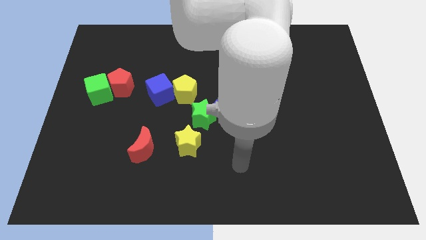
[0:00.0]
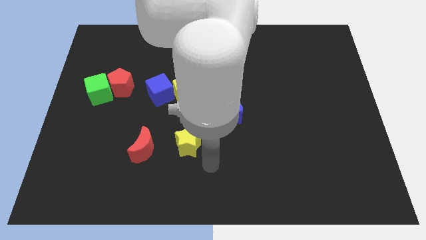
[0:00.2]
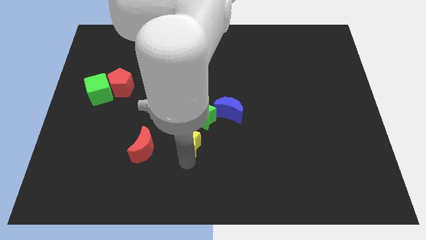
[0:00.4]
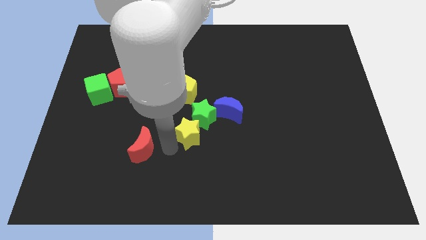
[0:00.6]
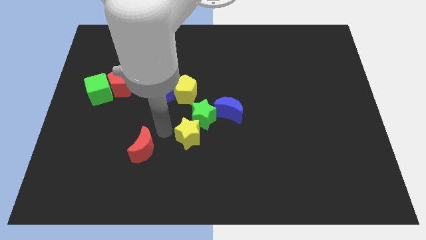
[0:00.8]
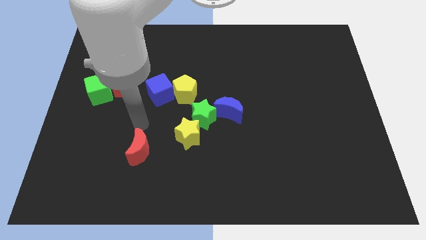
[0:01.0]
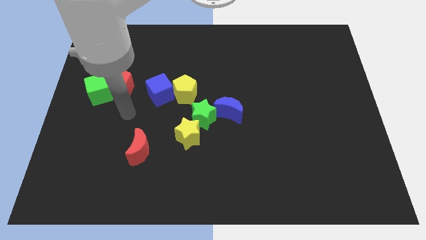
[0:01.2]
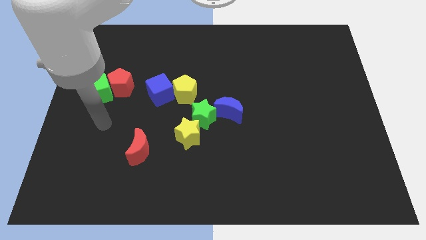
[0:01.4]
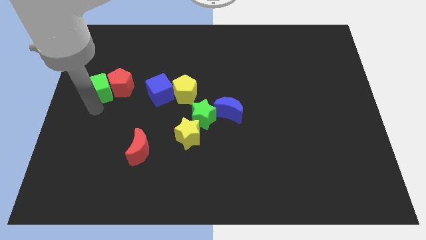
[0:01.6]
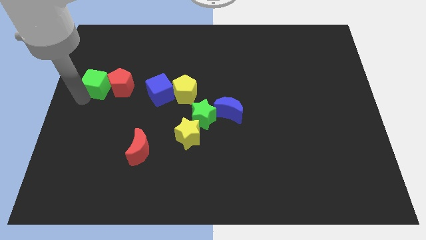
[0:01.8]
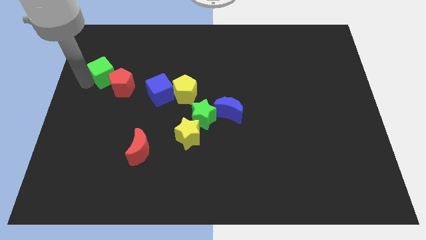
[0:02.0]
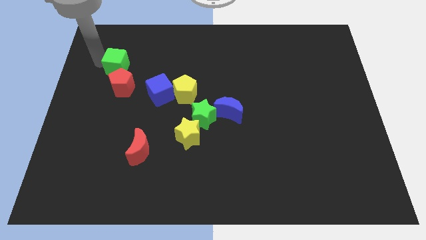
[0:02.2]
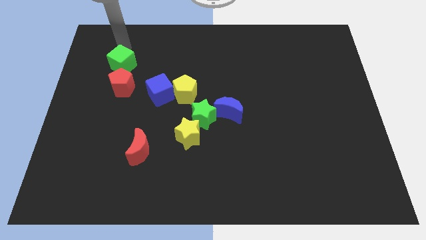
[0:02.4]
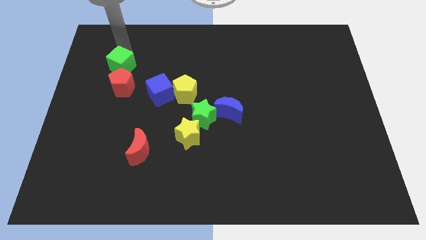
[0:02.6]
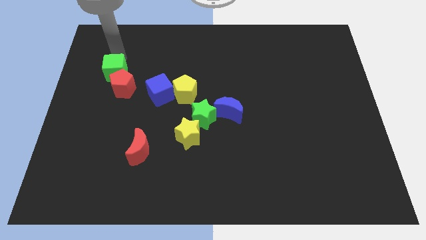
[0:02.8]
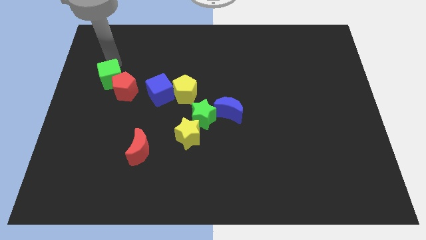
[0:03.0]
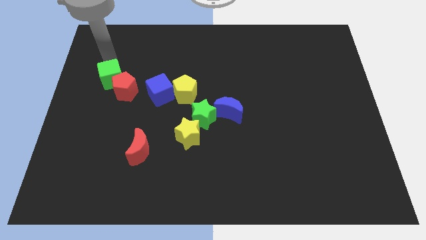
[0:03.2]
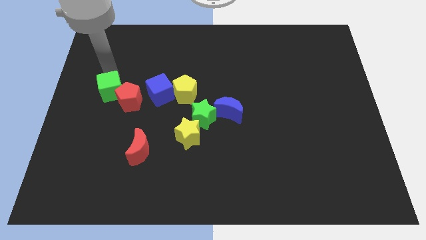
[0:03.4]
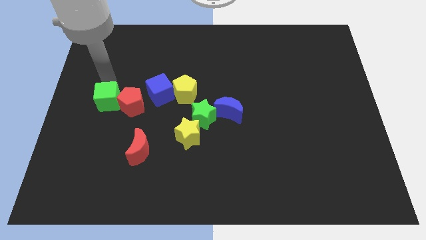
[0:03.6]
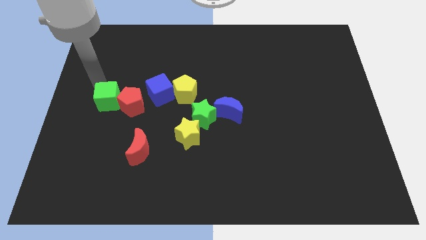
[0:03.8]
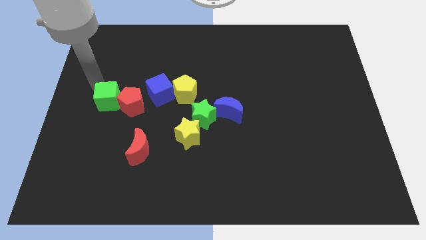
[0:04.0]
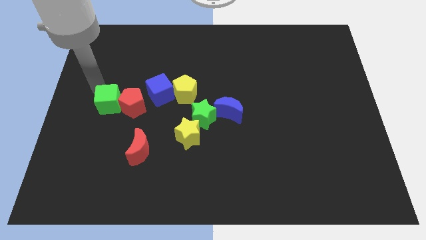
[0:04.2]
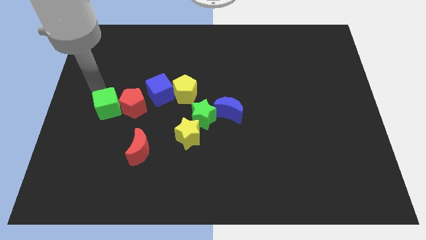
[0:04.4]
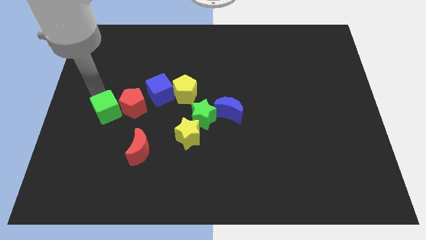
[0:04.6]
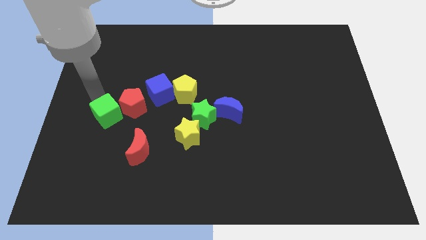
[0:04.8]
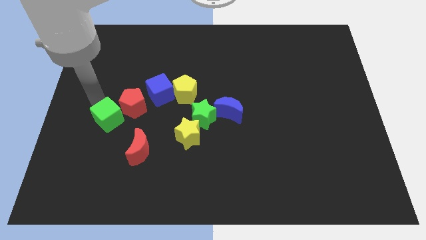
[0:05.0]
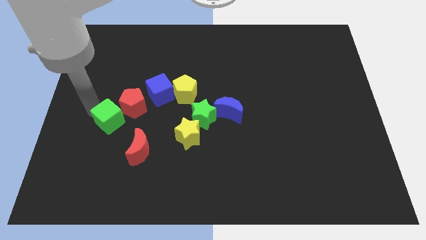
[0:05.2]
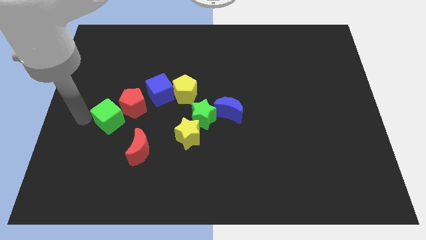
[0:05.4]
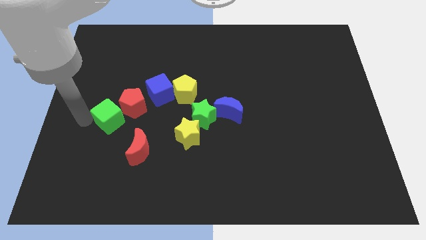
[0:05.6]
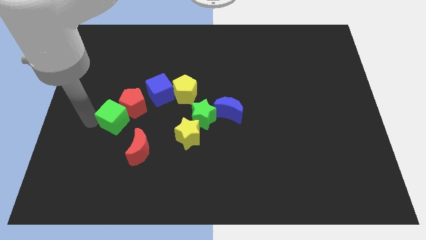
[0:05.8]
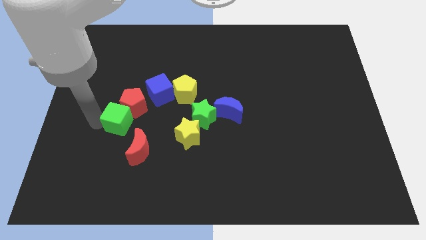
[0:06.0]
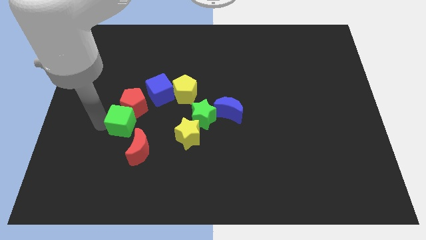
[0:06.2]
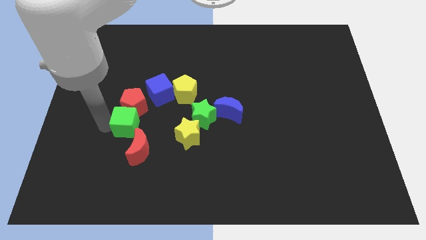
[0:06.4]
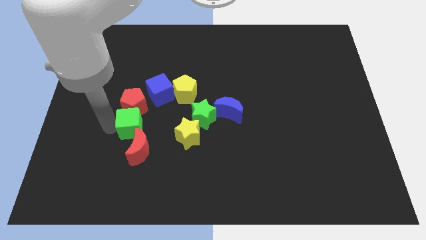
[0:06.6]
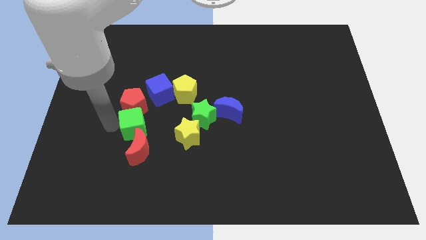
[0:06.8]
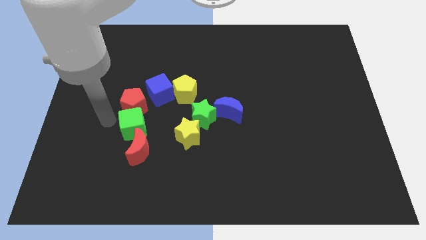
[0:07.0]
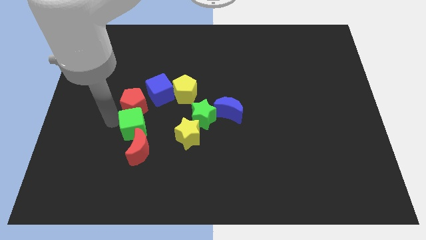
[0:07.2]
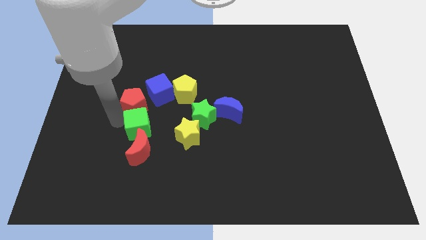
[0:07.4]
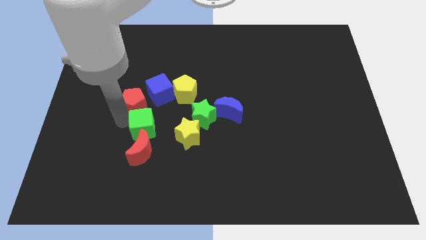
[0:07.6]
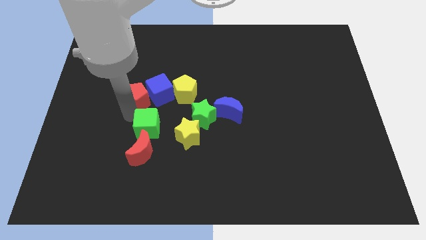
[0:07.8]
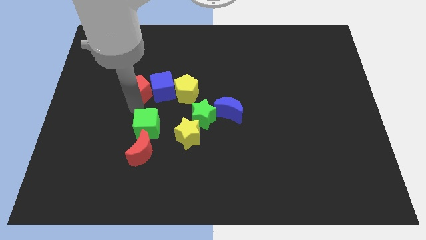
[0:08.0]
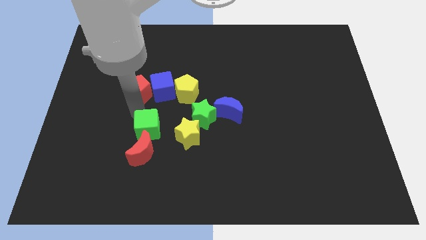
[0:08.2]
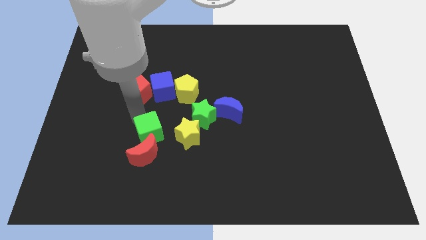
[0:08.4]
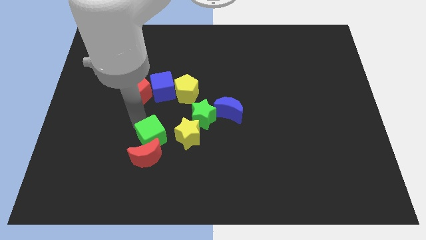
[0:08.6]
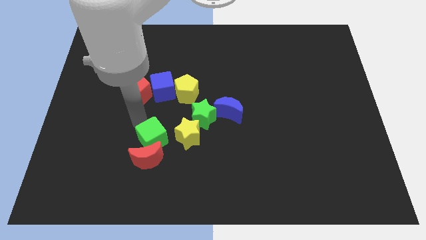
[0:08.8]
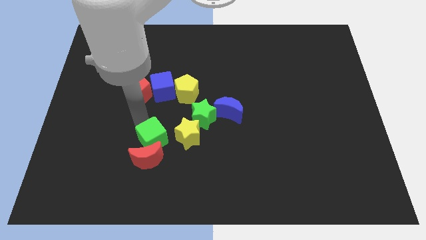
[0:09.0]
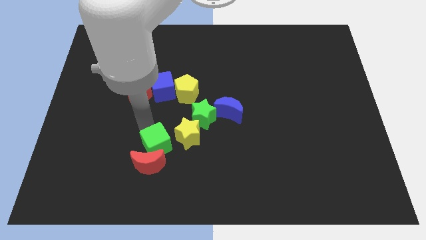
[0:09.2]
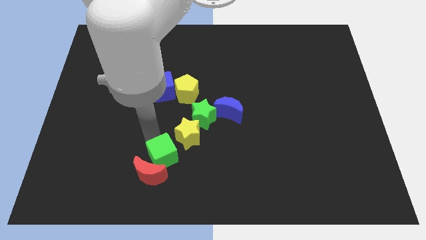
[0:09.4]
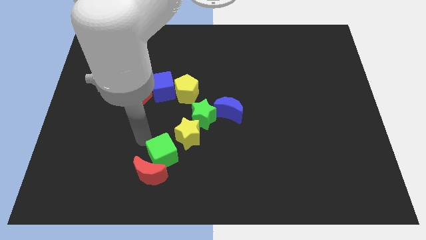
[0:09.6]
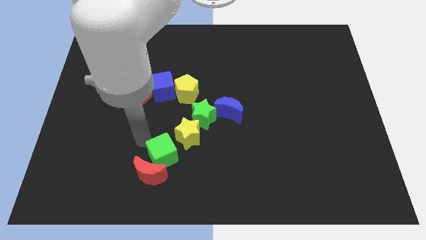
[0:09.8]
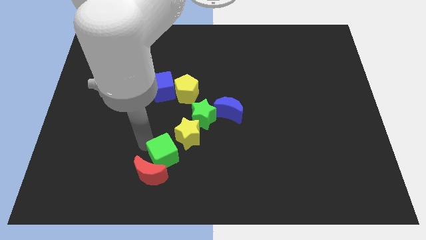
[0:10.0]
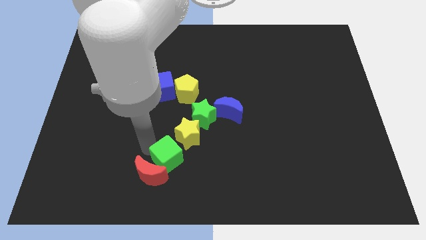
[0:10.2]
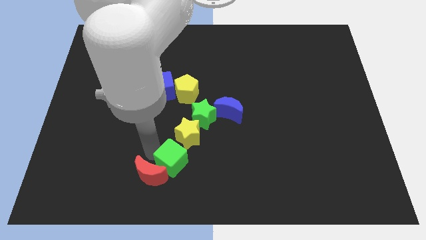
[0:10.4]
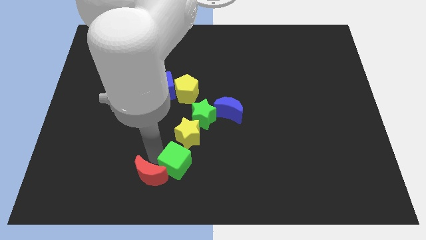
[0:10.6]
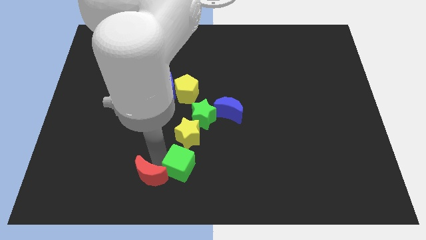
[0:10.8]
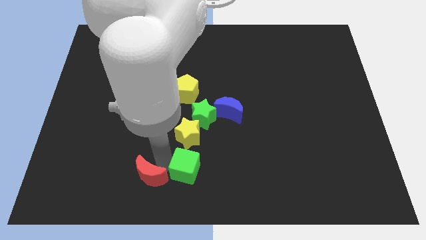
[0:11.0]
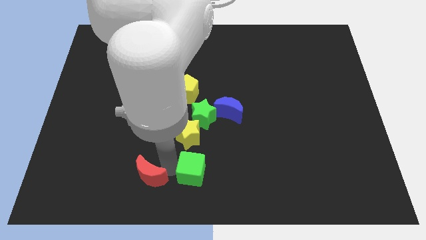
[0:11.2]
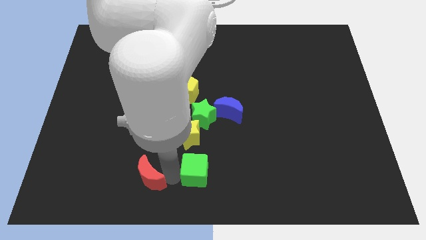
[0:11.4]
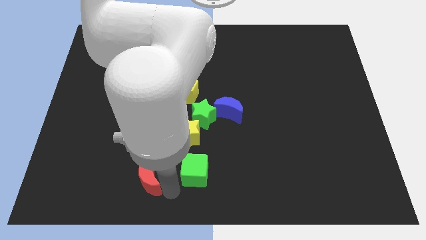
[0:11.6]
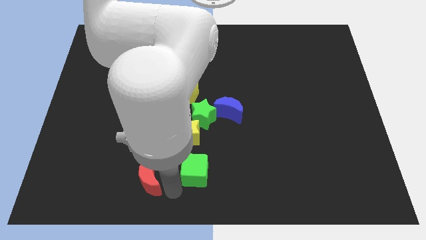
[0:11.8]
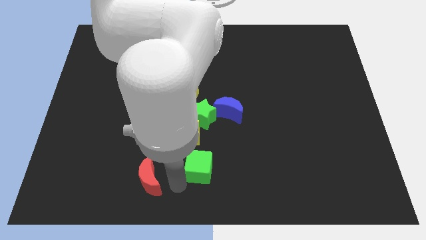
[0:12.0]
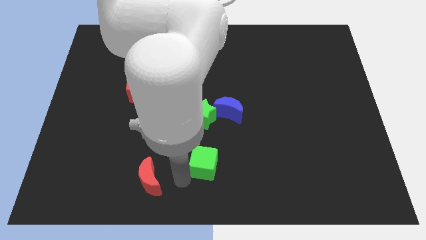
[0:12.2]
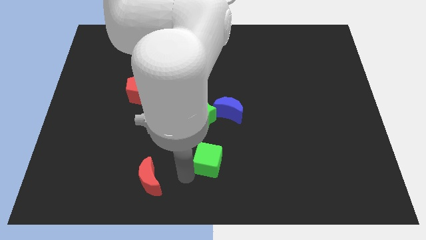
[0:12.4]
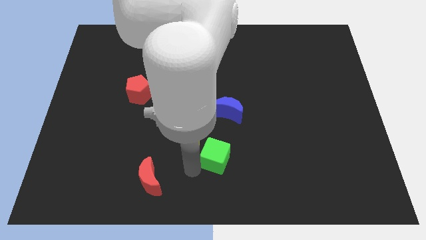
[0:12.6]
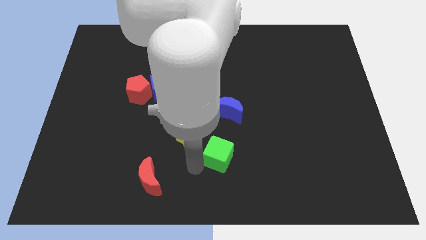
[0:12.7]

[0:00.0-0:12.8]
put the green cube just right of the yellow star

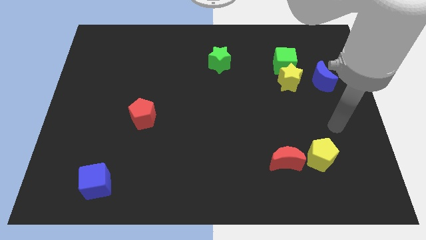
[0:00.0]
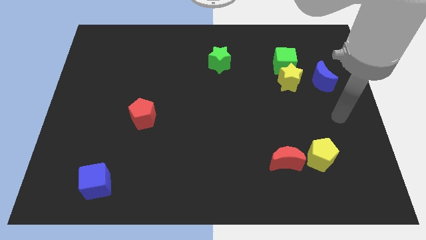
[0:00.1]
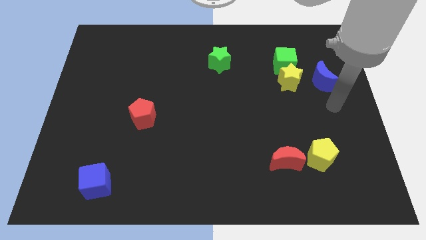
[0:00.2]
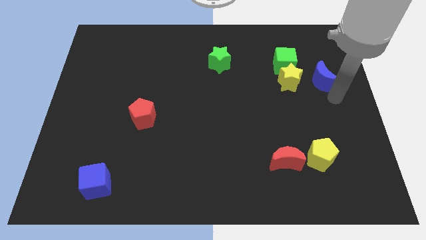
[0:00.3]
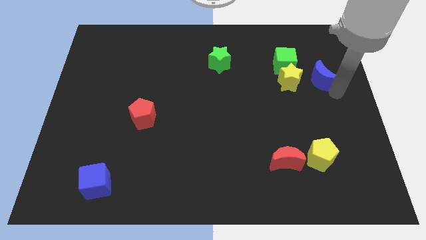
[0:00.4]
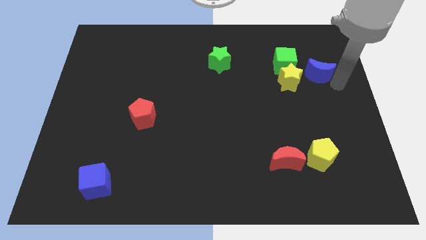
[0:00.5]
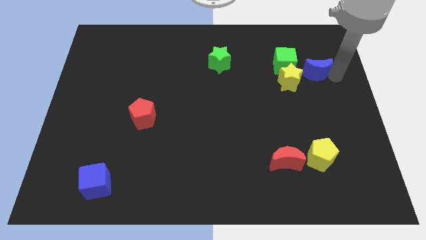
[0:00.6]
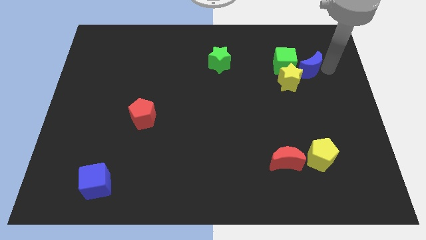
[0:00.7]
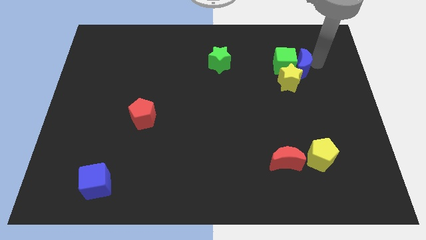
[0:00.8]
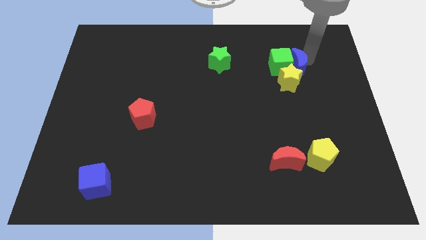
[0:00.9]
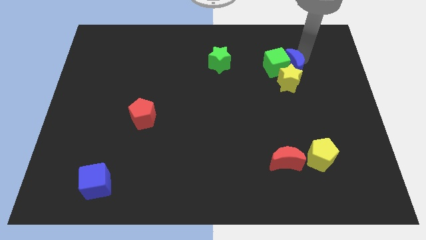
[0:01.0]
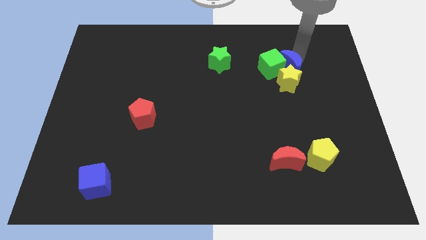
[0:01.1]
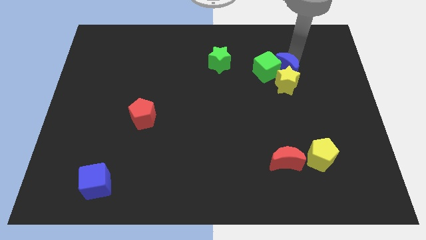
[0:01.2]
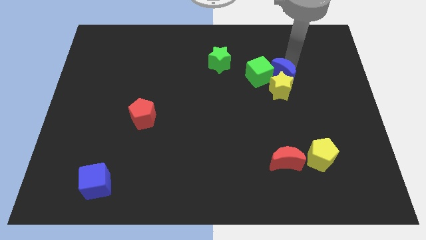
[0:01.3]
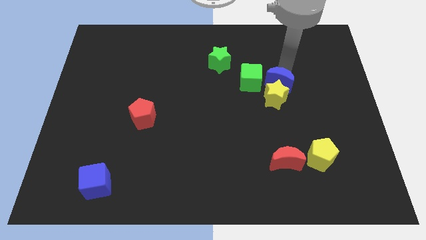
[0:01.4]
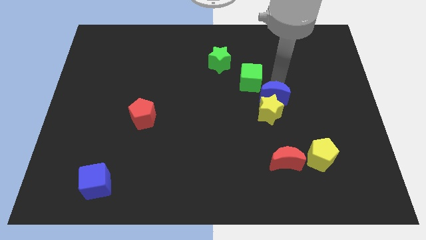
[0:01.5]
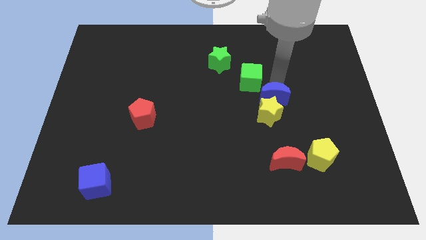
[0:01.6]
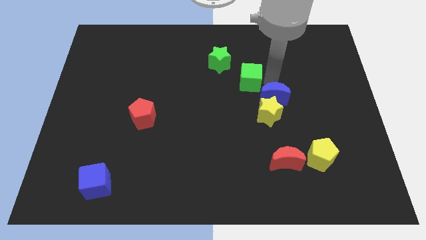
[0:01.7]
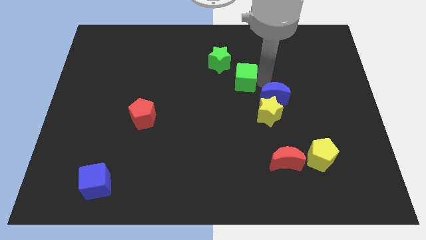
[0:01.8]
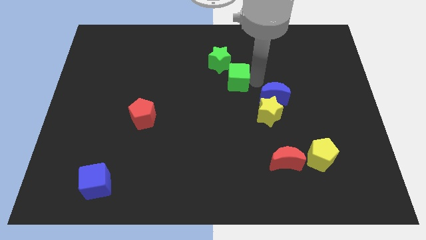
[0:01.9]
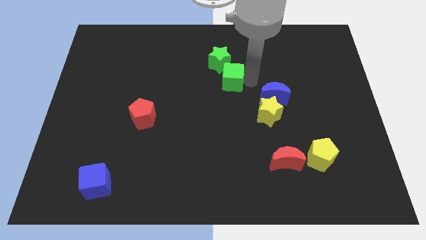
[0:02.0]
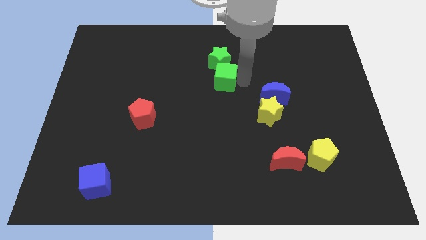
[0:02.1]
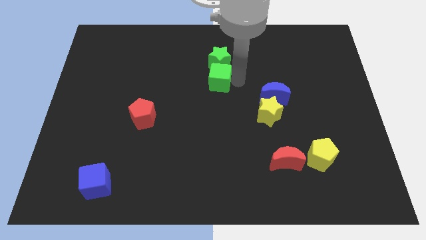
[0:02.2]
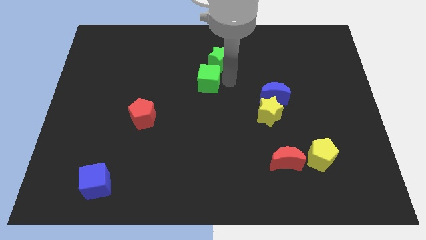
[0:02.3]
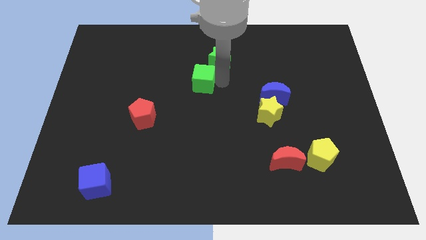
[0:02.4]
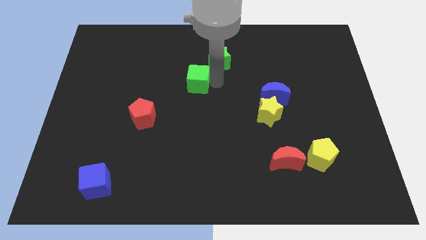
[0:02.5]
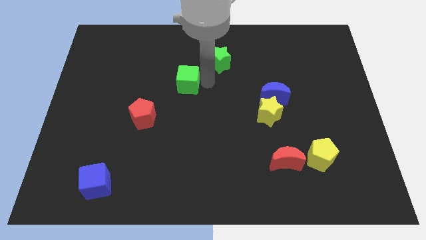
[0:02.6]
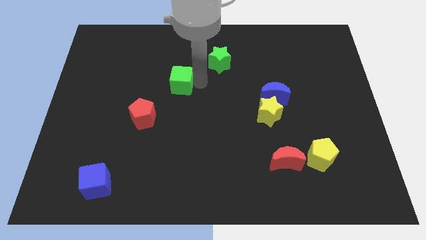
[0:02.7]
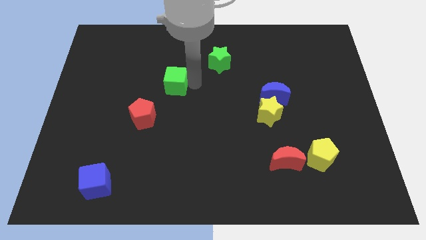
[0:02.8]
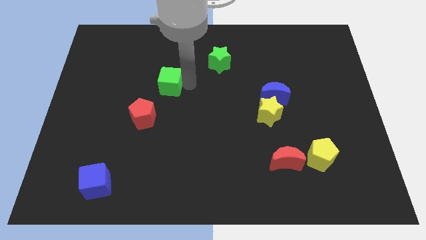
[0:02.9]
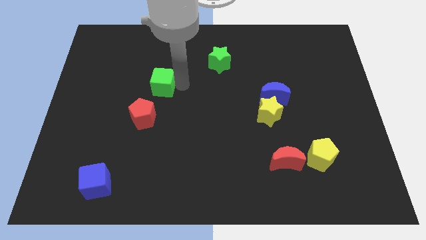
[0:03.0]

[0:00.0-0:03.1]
slide the green cube above the red pentagon
